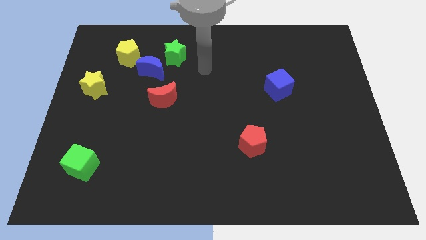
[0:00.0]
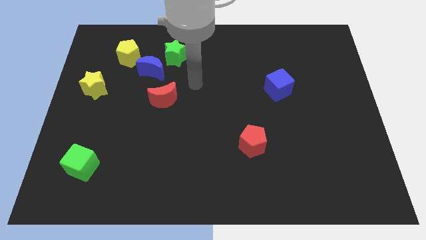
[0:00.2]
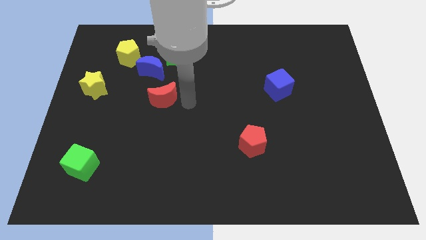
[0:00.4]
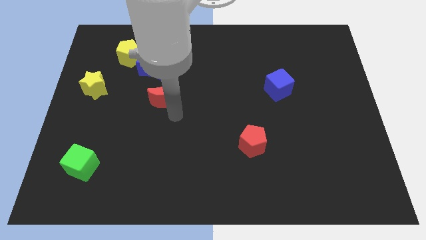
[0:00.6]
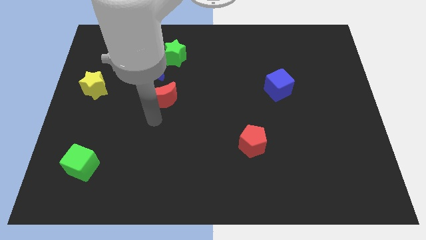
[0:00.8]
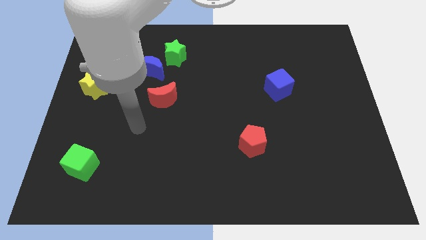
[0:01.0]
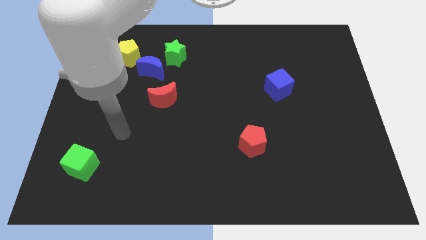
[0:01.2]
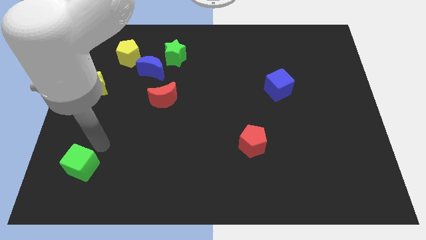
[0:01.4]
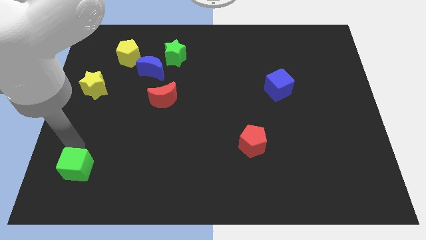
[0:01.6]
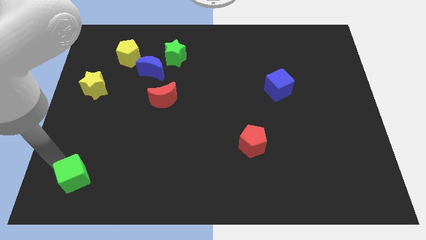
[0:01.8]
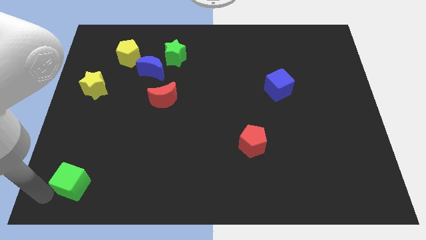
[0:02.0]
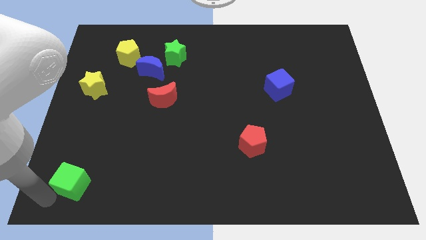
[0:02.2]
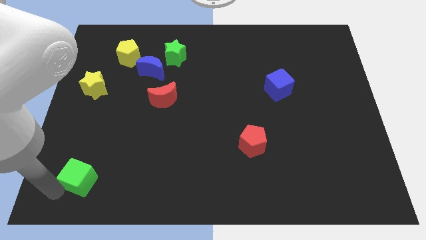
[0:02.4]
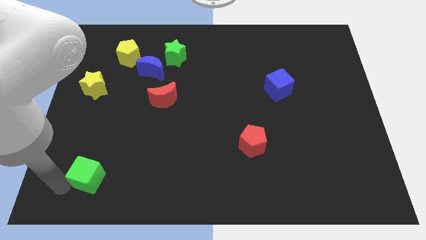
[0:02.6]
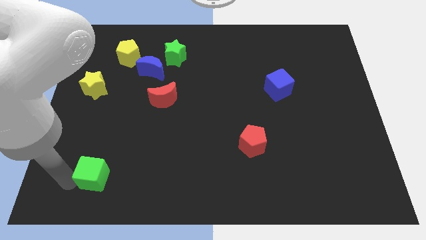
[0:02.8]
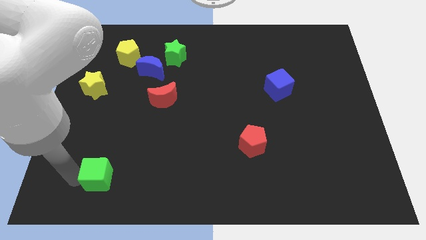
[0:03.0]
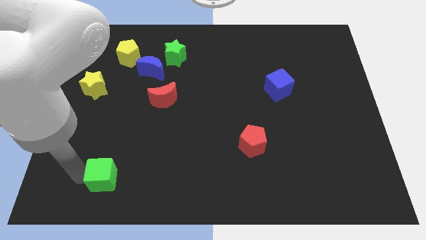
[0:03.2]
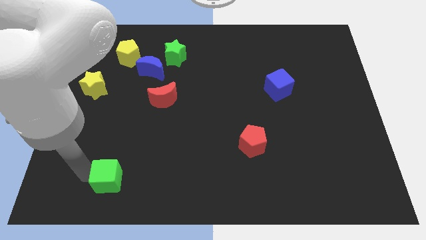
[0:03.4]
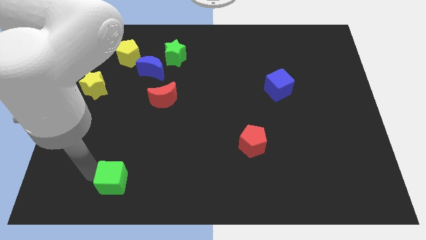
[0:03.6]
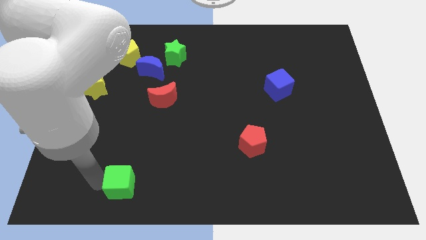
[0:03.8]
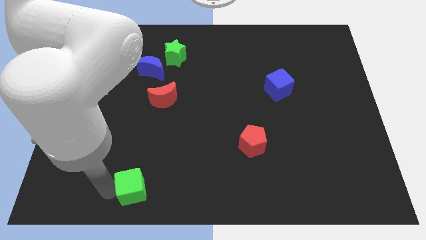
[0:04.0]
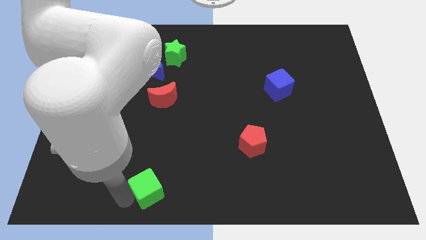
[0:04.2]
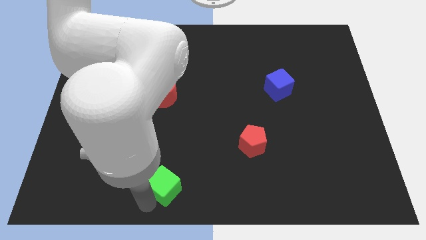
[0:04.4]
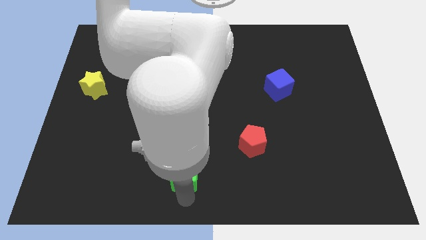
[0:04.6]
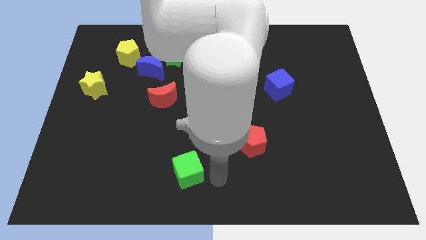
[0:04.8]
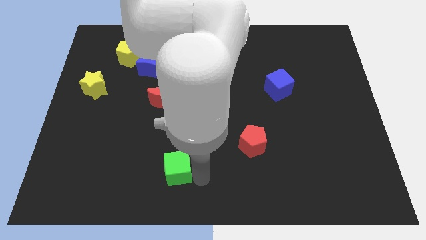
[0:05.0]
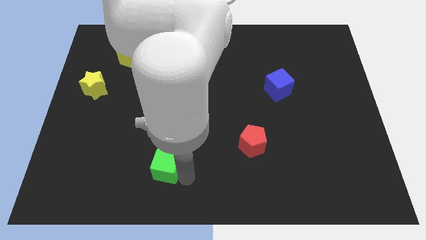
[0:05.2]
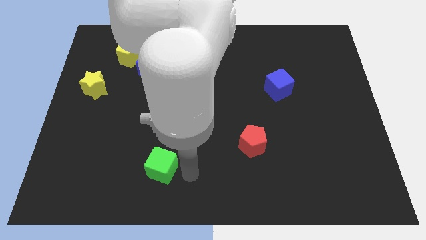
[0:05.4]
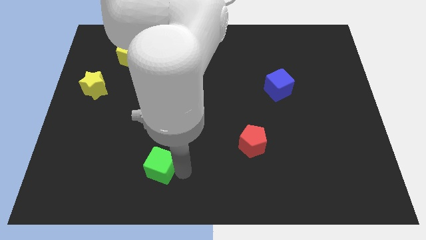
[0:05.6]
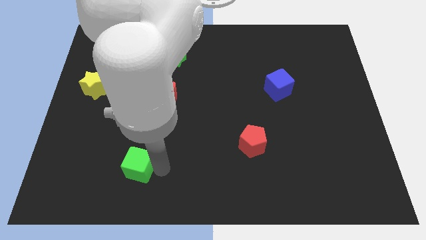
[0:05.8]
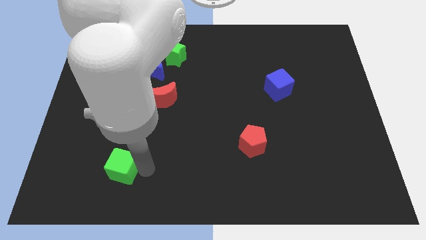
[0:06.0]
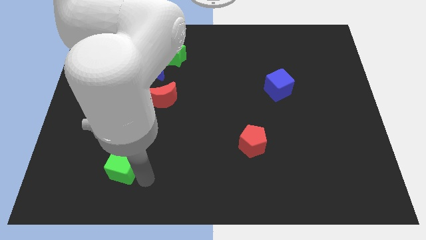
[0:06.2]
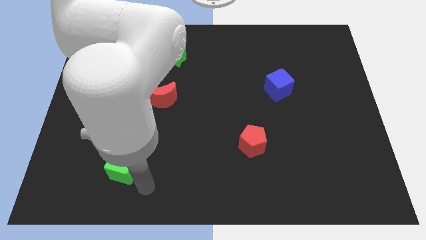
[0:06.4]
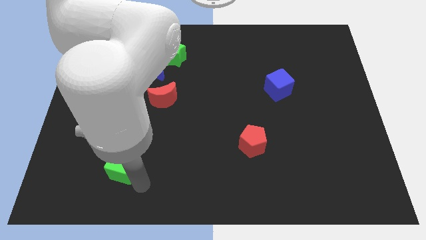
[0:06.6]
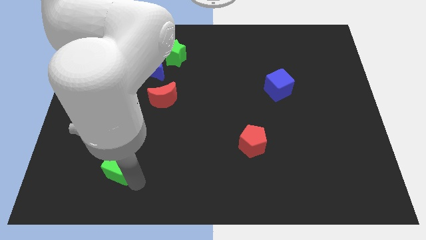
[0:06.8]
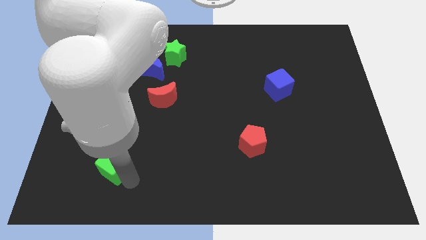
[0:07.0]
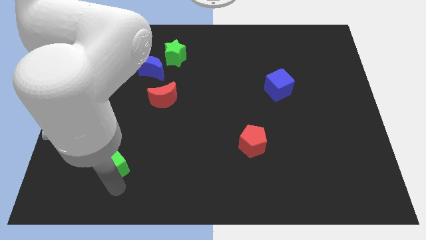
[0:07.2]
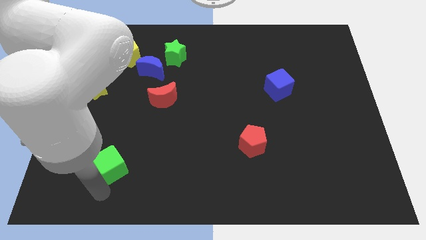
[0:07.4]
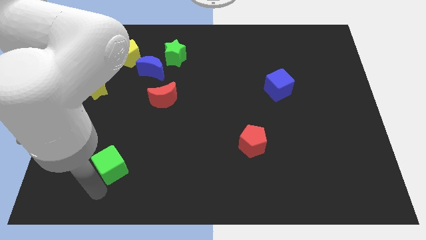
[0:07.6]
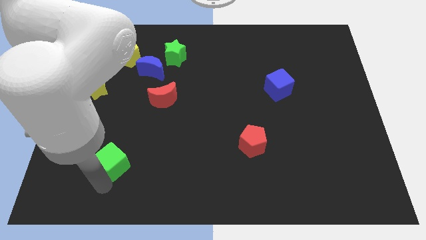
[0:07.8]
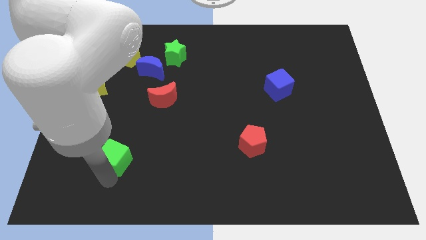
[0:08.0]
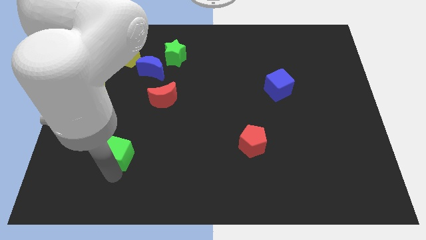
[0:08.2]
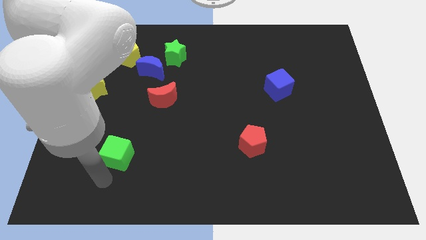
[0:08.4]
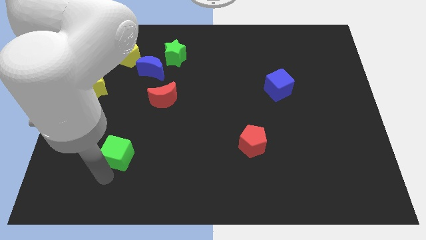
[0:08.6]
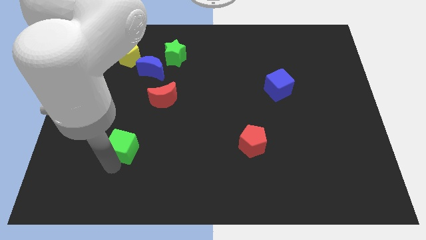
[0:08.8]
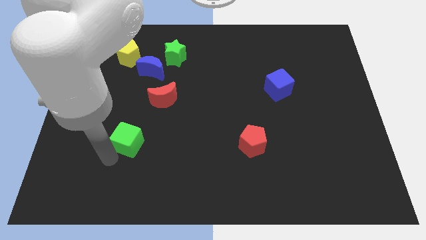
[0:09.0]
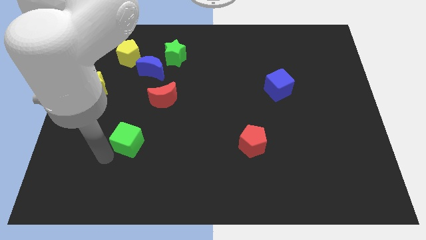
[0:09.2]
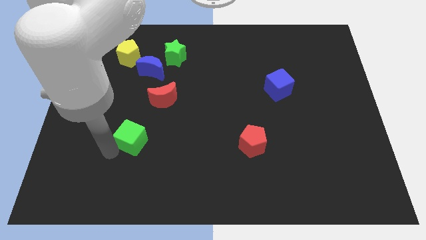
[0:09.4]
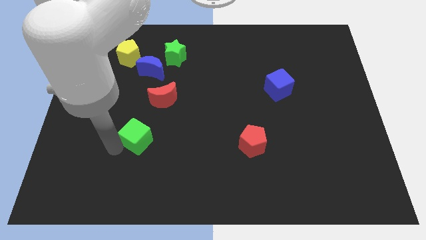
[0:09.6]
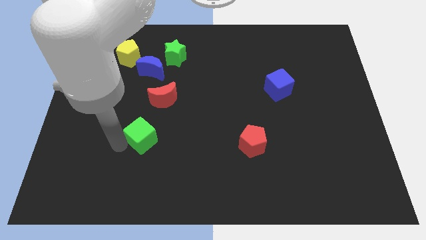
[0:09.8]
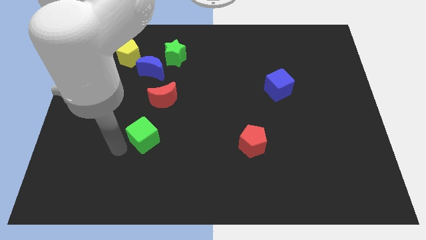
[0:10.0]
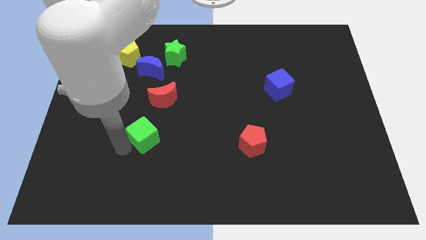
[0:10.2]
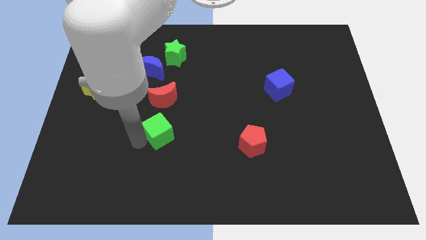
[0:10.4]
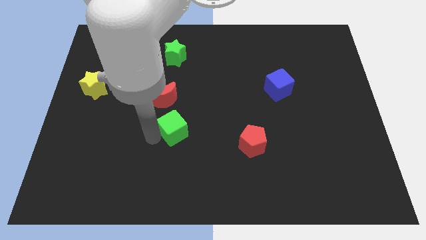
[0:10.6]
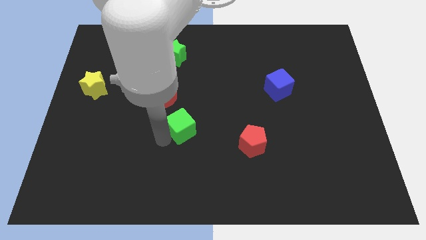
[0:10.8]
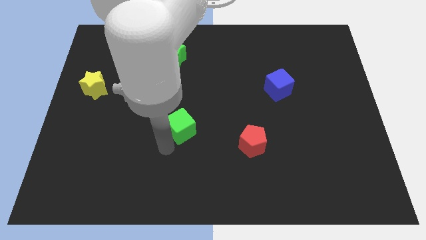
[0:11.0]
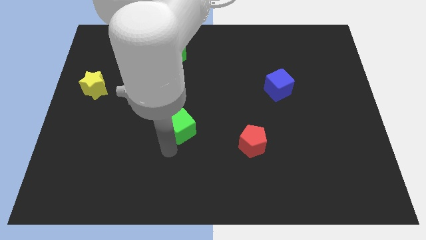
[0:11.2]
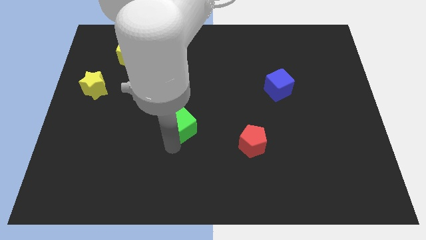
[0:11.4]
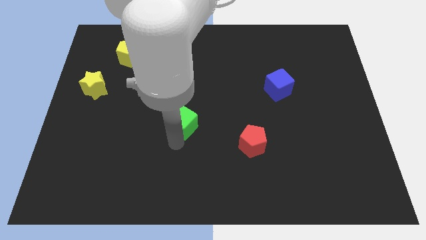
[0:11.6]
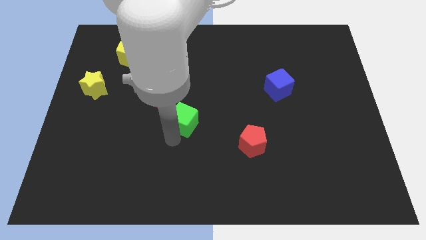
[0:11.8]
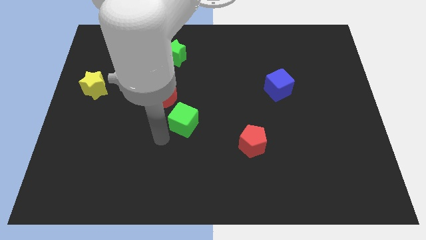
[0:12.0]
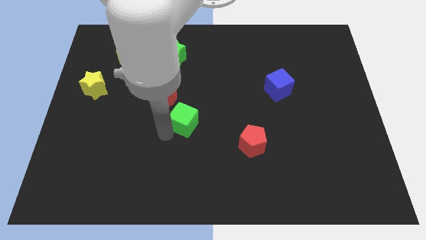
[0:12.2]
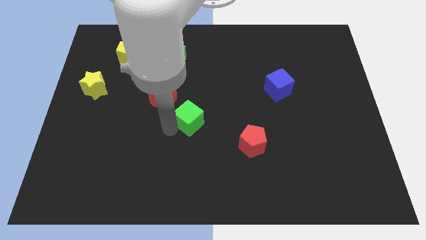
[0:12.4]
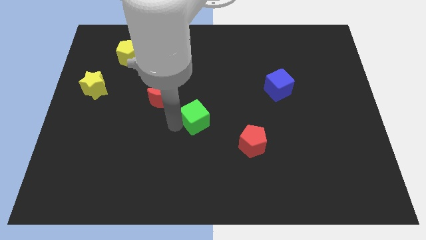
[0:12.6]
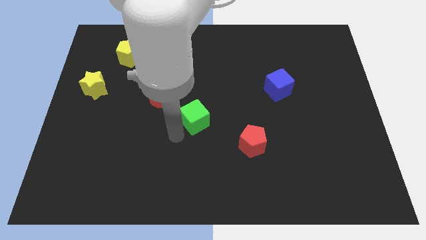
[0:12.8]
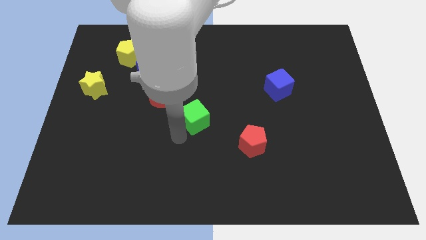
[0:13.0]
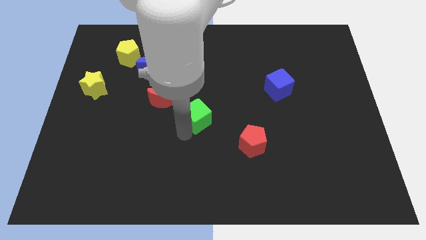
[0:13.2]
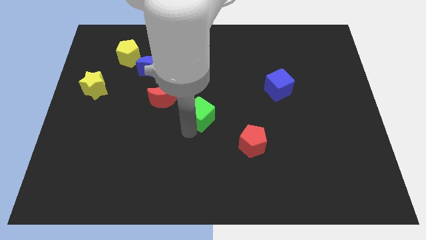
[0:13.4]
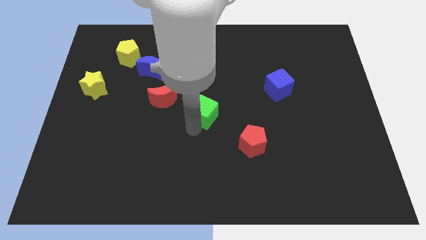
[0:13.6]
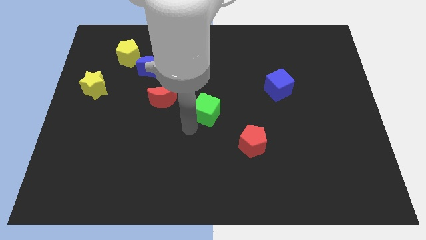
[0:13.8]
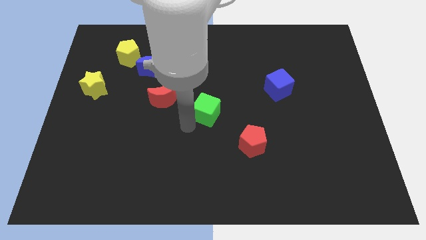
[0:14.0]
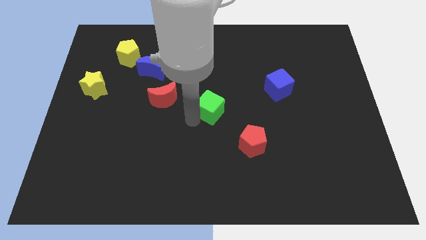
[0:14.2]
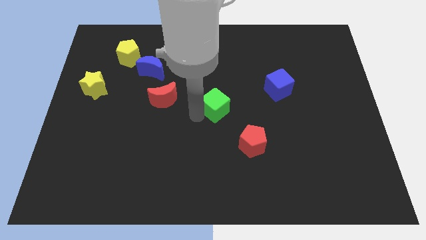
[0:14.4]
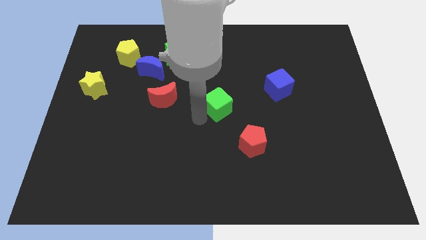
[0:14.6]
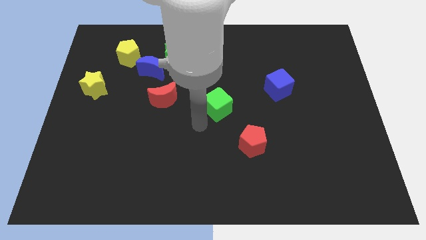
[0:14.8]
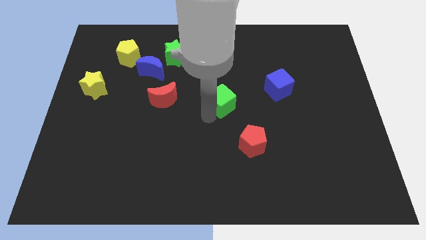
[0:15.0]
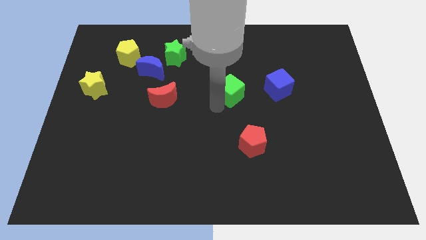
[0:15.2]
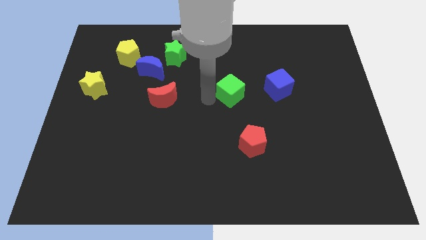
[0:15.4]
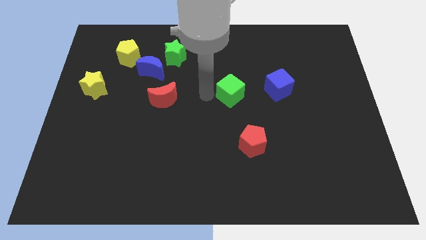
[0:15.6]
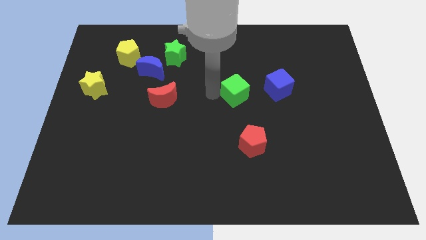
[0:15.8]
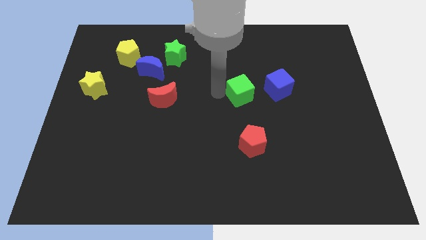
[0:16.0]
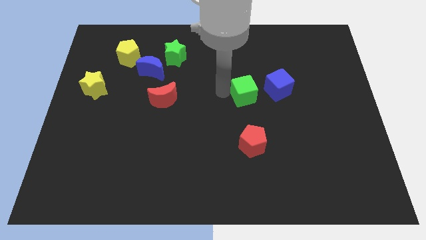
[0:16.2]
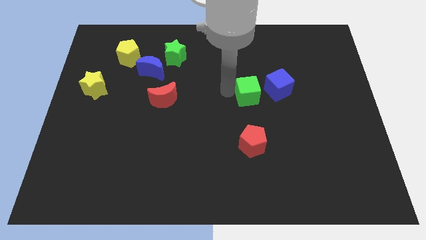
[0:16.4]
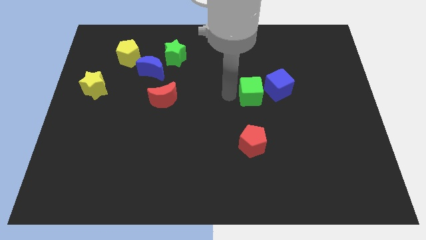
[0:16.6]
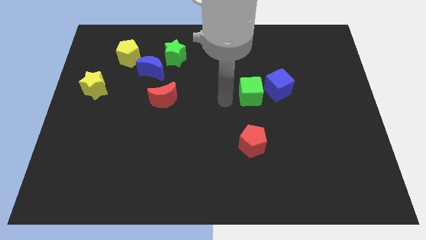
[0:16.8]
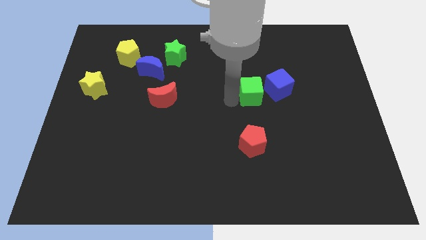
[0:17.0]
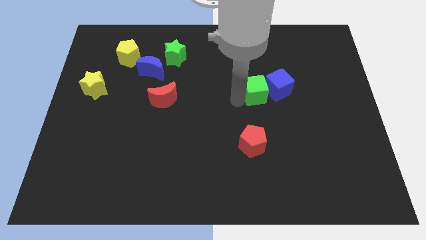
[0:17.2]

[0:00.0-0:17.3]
move the green cube next to the blue cube
